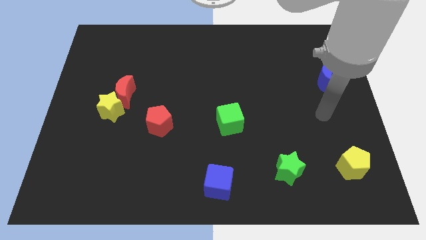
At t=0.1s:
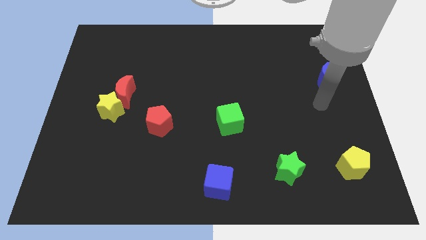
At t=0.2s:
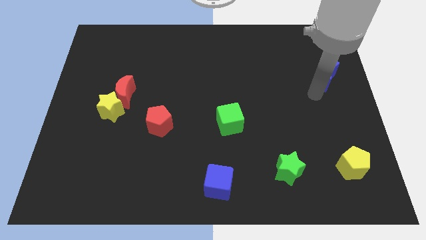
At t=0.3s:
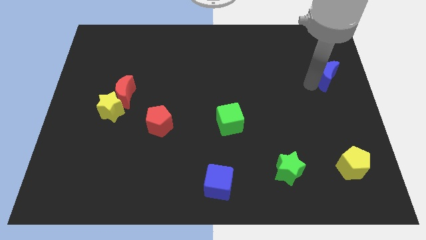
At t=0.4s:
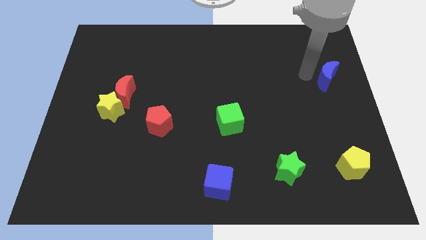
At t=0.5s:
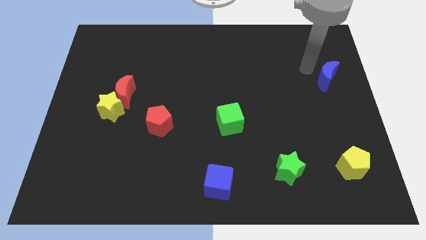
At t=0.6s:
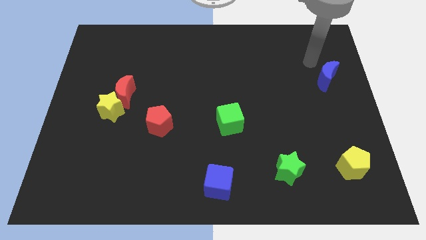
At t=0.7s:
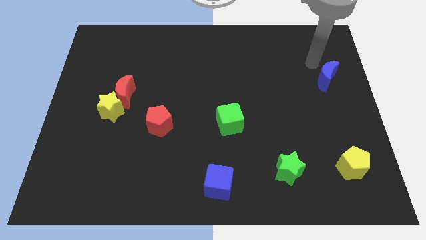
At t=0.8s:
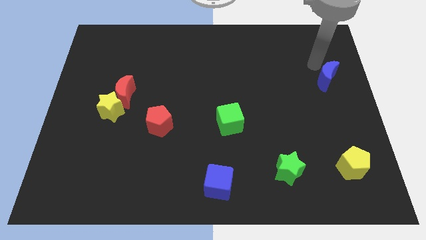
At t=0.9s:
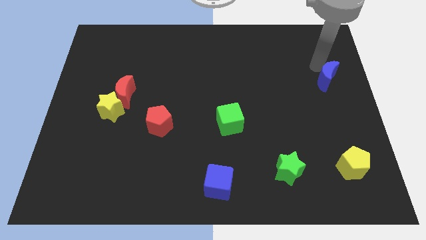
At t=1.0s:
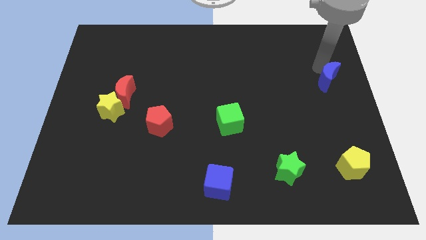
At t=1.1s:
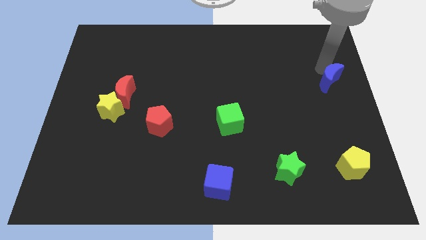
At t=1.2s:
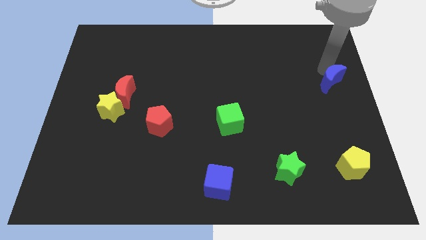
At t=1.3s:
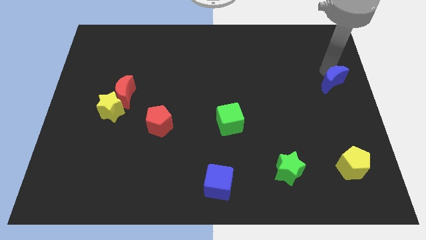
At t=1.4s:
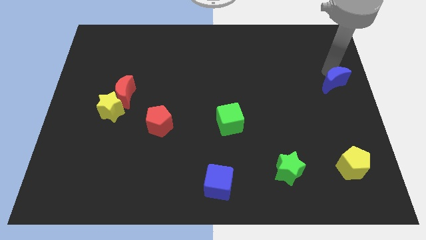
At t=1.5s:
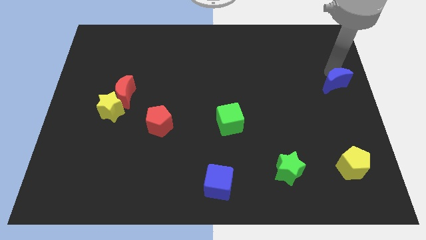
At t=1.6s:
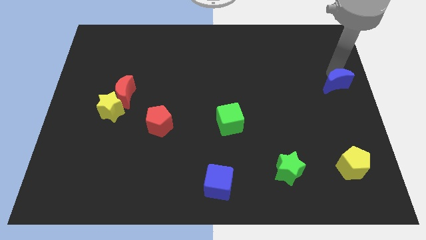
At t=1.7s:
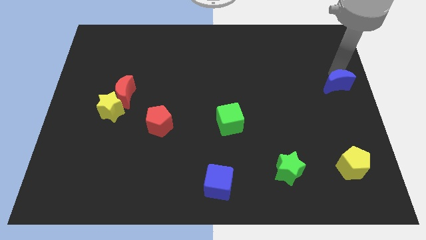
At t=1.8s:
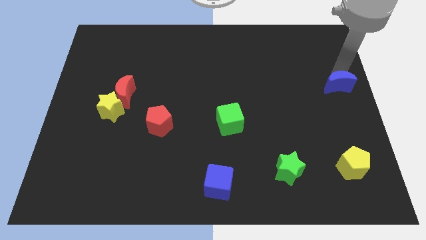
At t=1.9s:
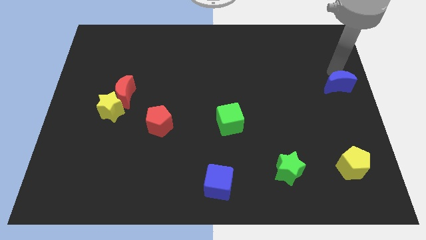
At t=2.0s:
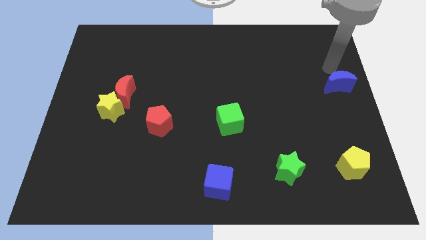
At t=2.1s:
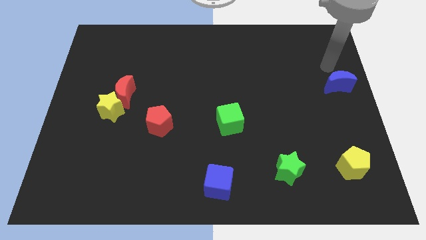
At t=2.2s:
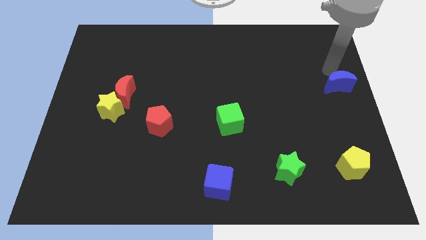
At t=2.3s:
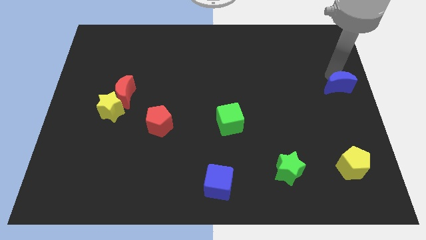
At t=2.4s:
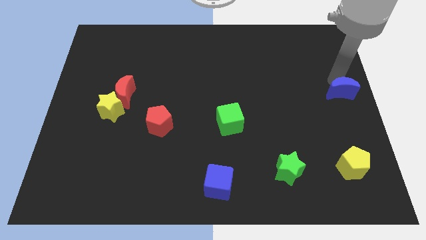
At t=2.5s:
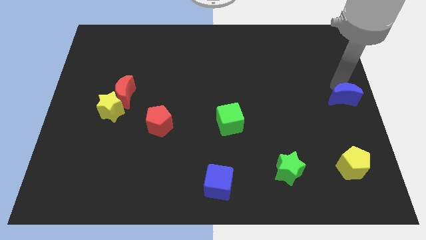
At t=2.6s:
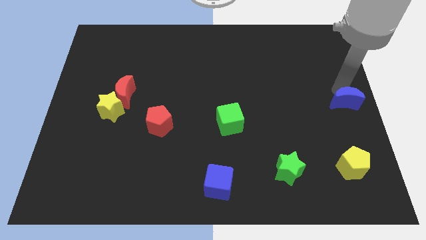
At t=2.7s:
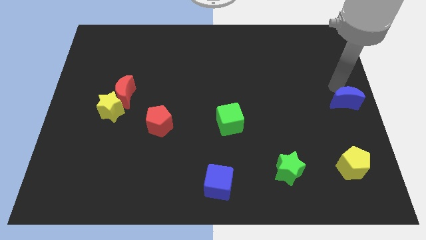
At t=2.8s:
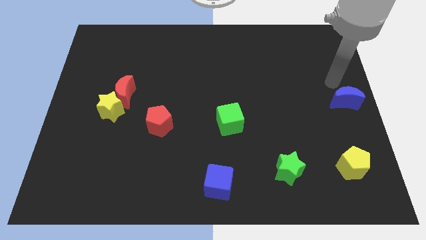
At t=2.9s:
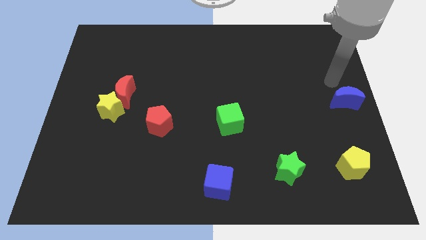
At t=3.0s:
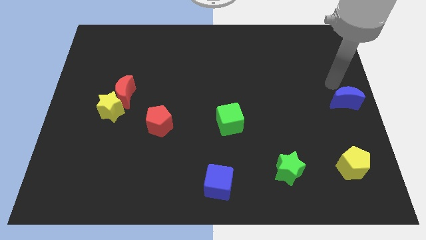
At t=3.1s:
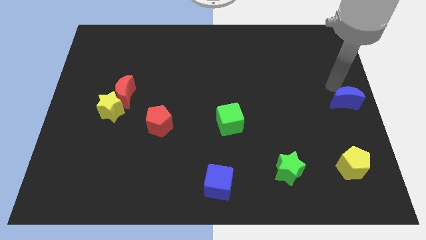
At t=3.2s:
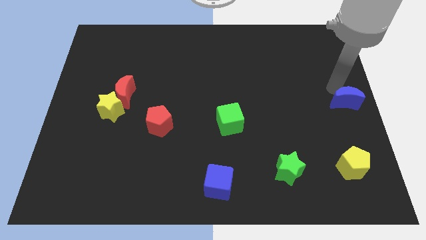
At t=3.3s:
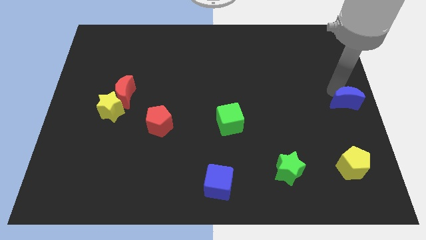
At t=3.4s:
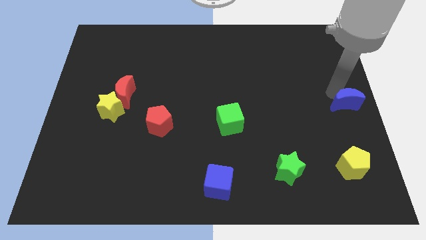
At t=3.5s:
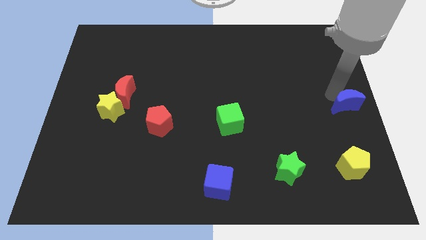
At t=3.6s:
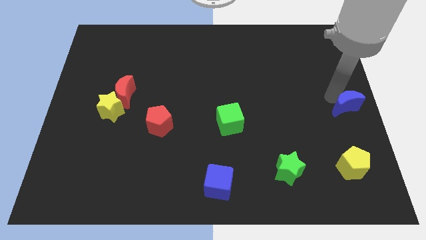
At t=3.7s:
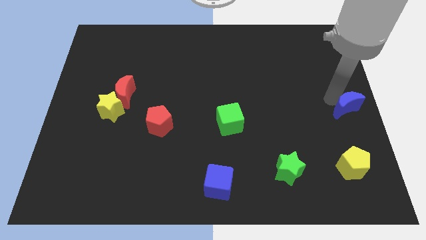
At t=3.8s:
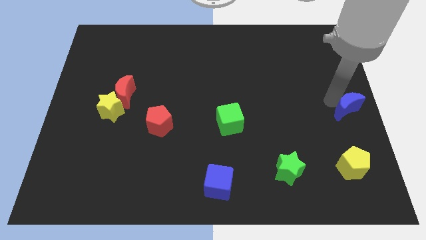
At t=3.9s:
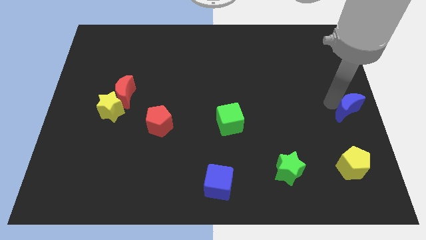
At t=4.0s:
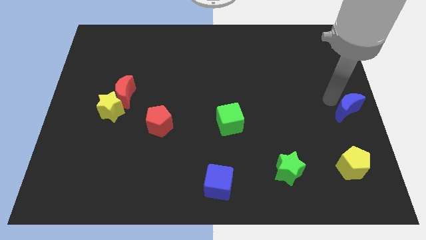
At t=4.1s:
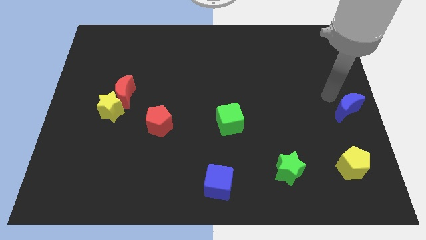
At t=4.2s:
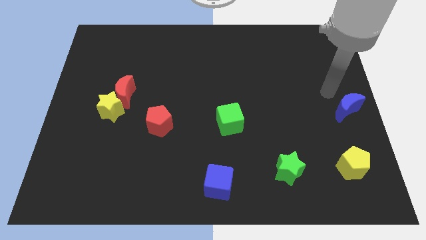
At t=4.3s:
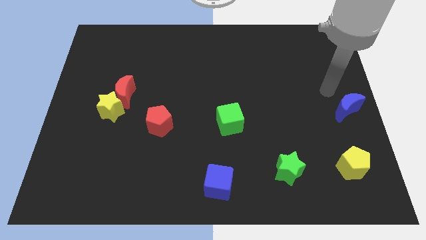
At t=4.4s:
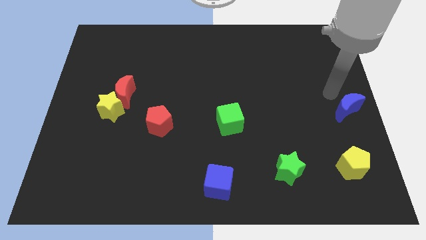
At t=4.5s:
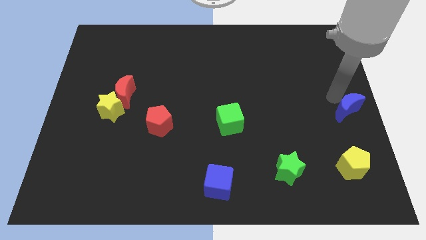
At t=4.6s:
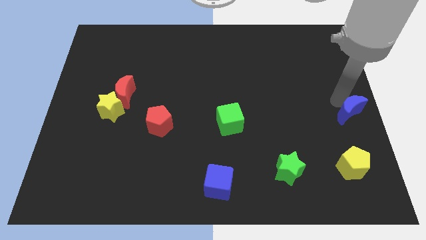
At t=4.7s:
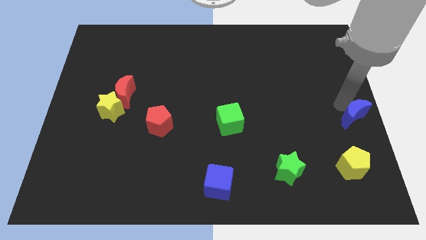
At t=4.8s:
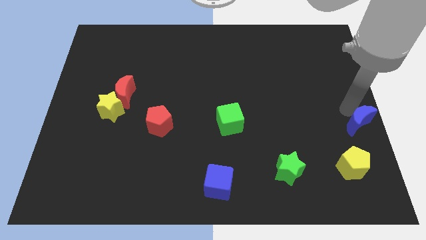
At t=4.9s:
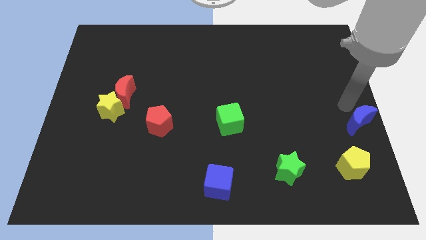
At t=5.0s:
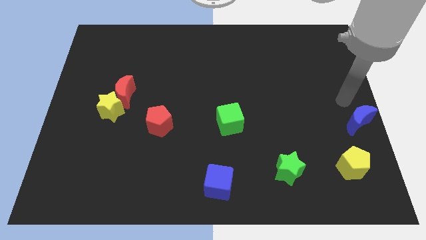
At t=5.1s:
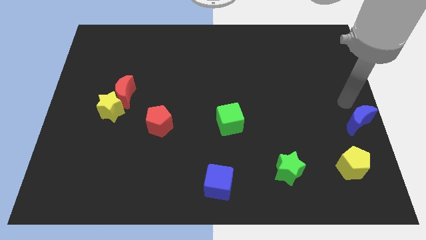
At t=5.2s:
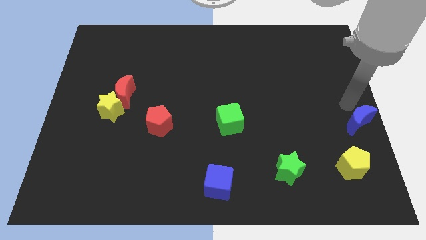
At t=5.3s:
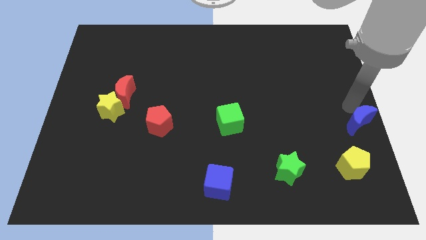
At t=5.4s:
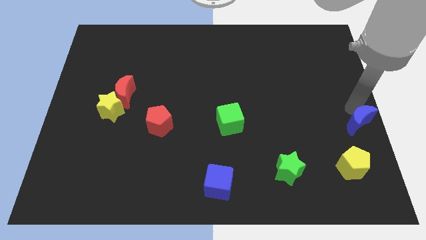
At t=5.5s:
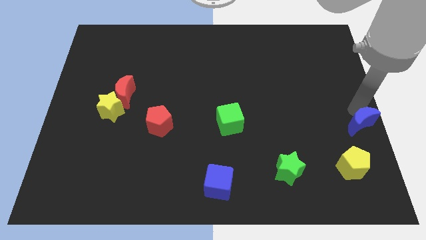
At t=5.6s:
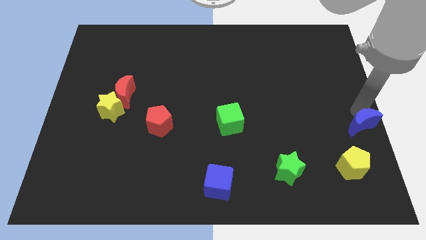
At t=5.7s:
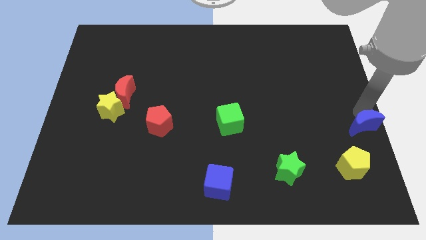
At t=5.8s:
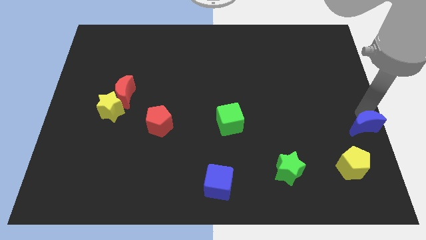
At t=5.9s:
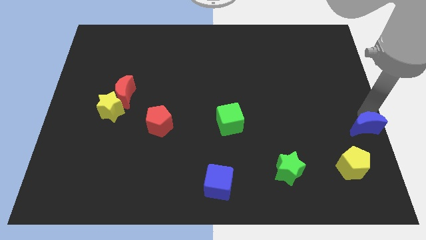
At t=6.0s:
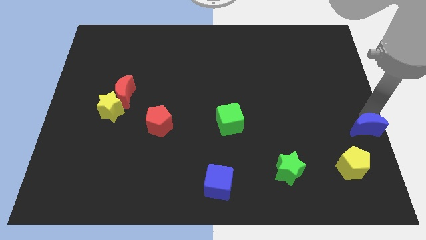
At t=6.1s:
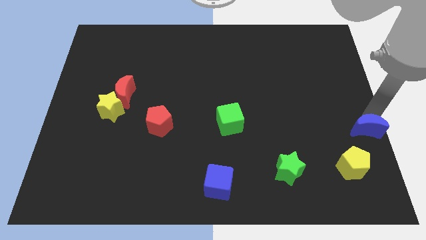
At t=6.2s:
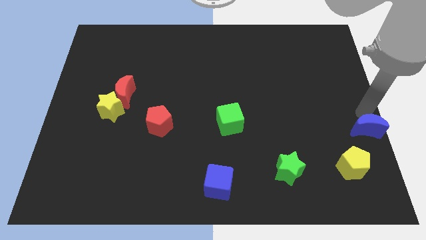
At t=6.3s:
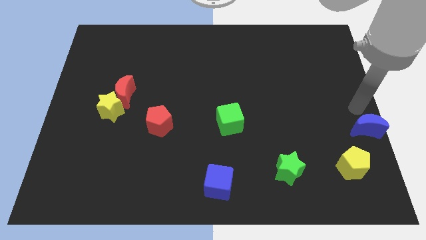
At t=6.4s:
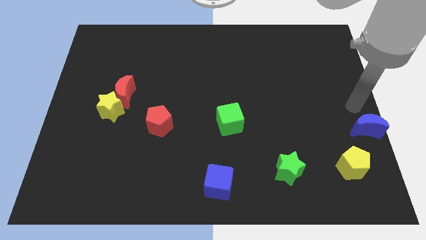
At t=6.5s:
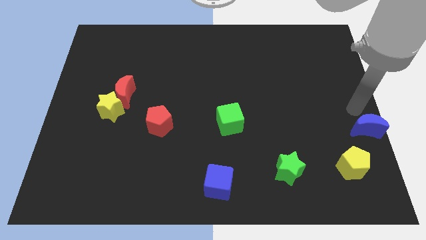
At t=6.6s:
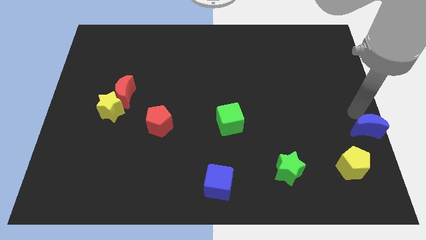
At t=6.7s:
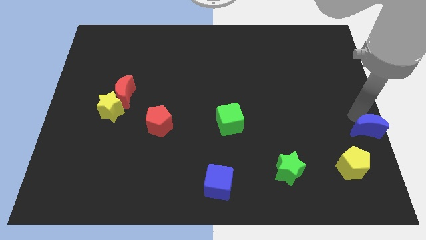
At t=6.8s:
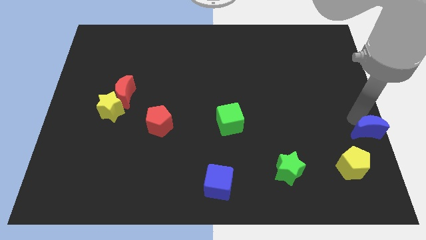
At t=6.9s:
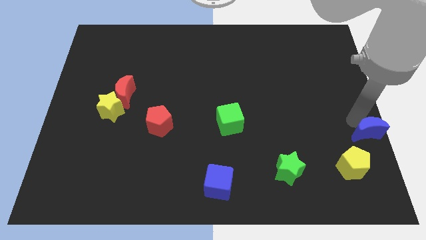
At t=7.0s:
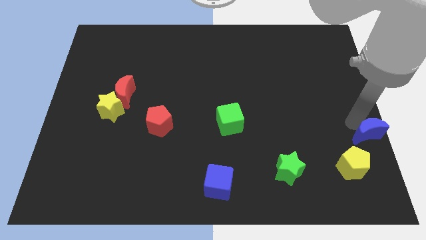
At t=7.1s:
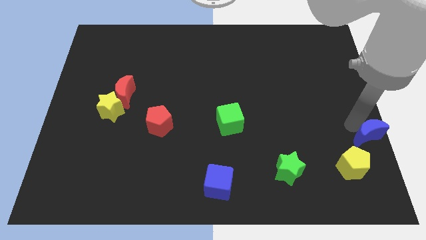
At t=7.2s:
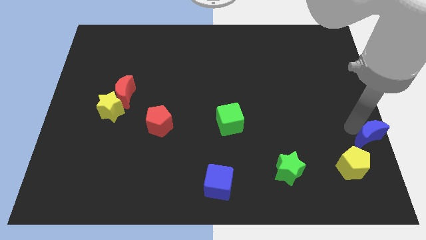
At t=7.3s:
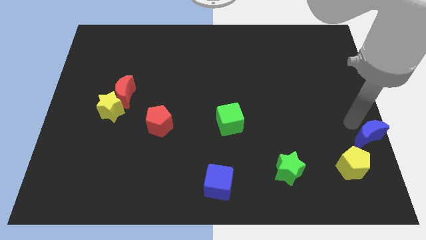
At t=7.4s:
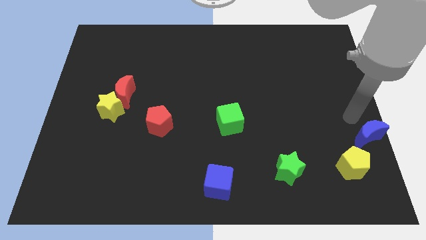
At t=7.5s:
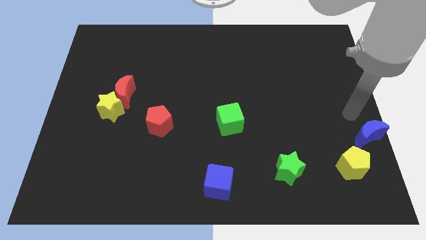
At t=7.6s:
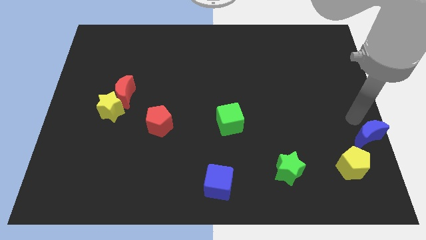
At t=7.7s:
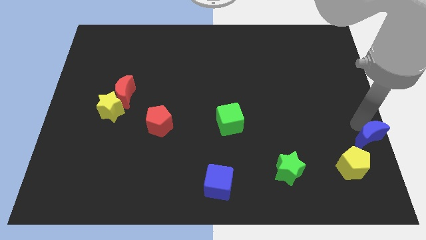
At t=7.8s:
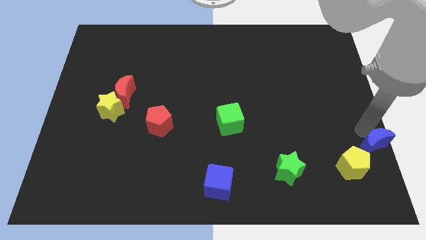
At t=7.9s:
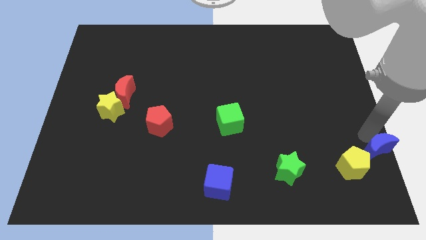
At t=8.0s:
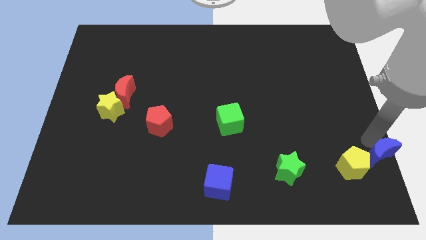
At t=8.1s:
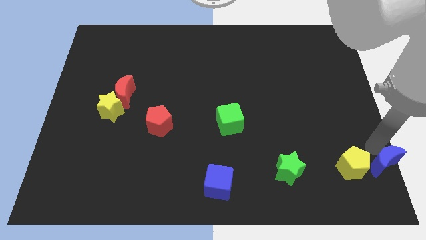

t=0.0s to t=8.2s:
put the blue moon to the lower right corner
